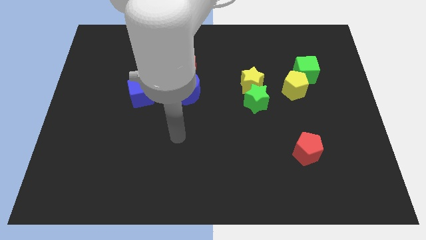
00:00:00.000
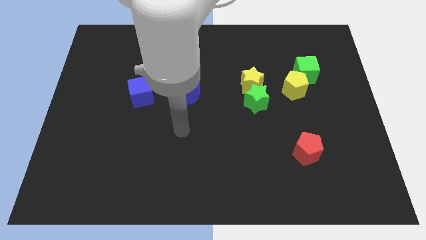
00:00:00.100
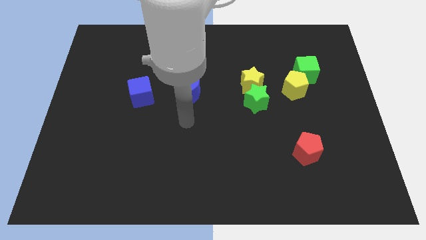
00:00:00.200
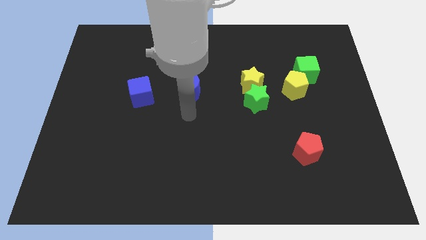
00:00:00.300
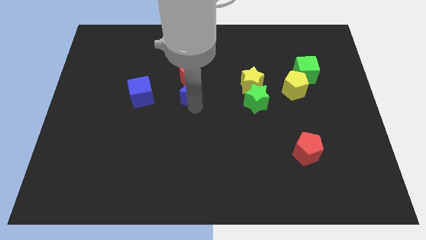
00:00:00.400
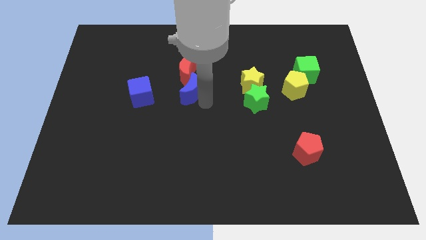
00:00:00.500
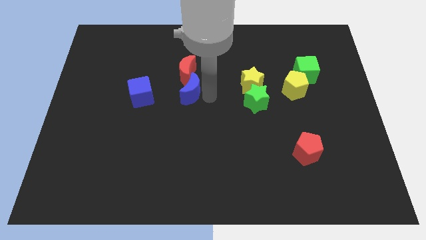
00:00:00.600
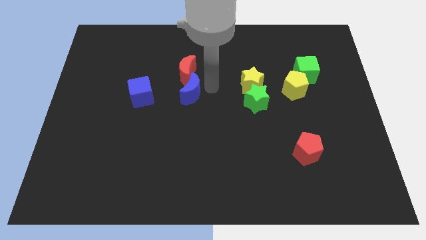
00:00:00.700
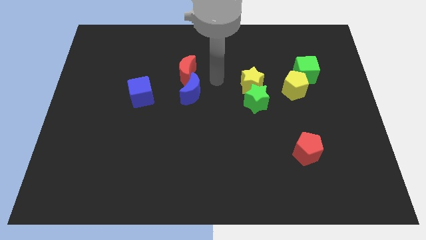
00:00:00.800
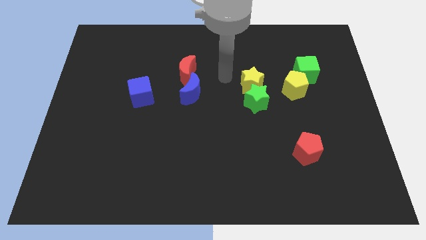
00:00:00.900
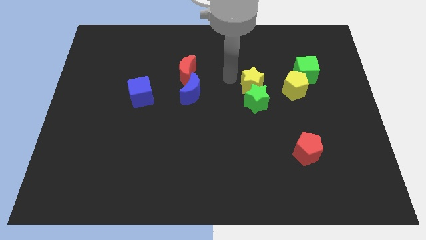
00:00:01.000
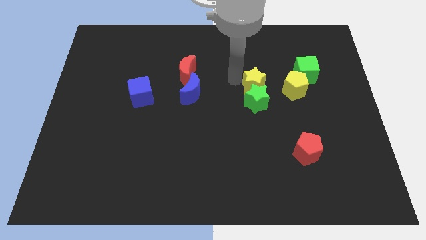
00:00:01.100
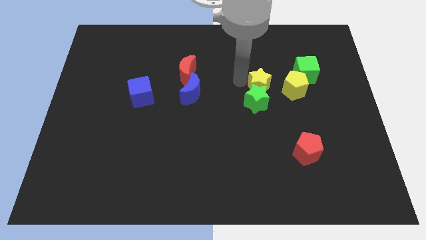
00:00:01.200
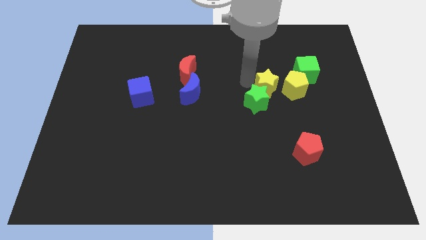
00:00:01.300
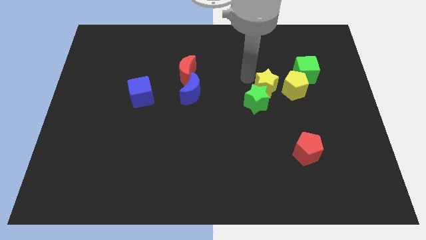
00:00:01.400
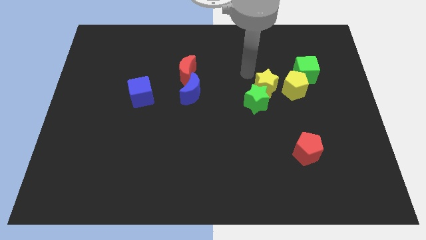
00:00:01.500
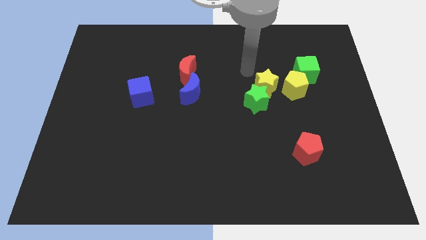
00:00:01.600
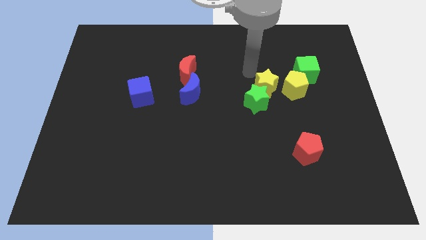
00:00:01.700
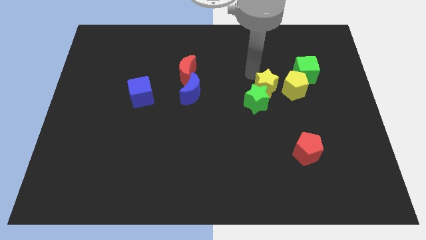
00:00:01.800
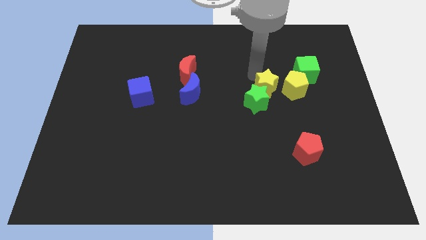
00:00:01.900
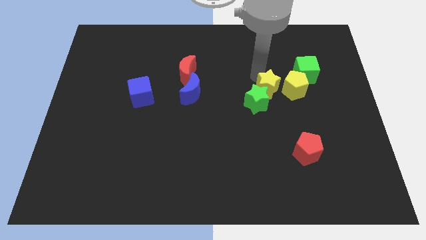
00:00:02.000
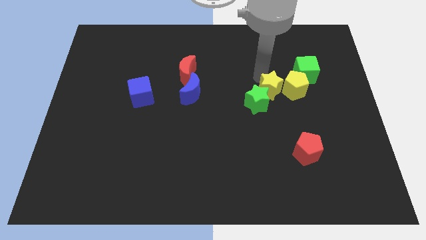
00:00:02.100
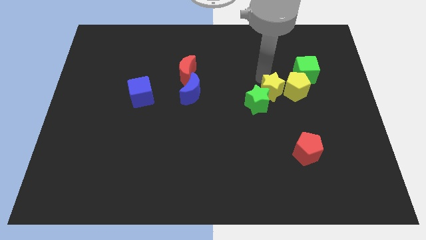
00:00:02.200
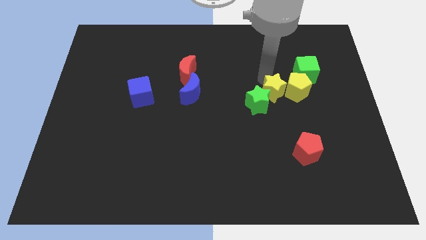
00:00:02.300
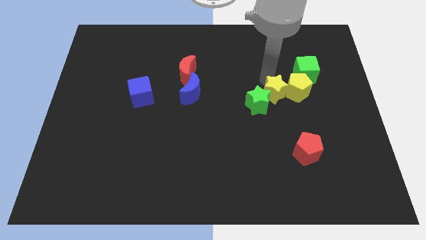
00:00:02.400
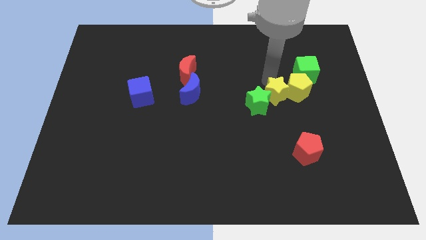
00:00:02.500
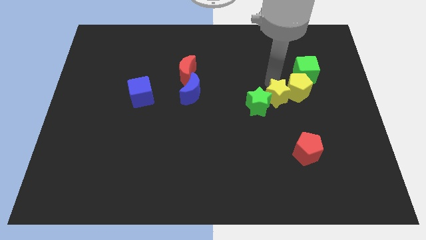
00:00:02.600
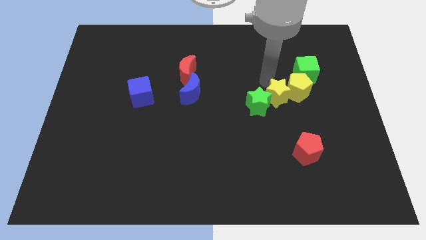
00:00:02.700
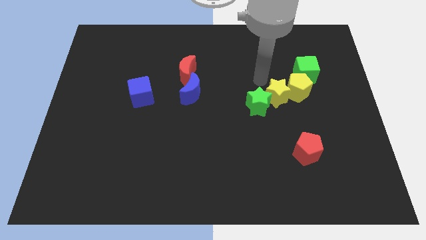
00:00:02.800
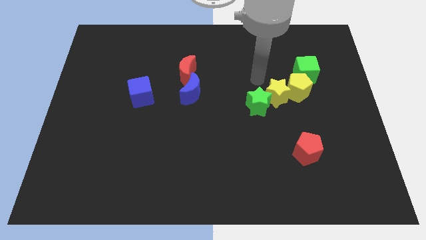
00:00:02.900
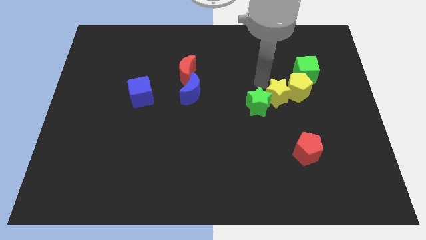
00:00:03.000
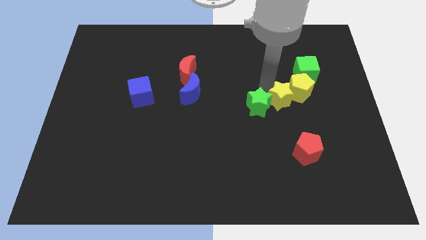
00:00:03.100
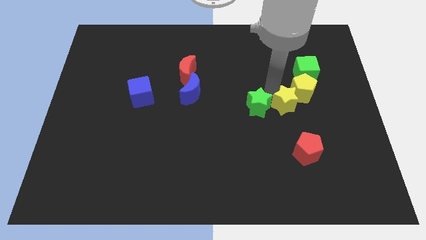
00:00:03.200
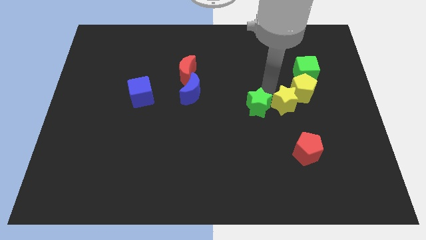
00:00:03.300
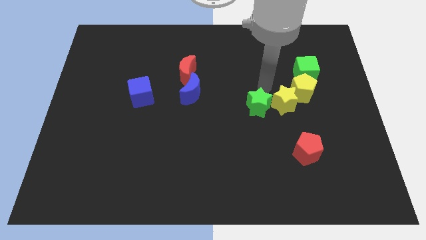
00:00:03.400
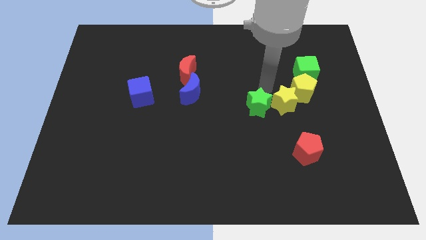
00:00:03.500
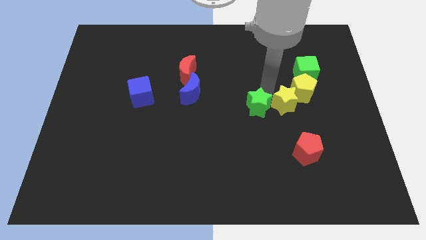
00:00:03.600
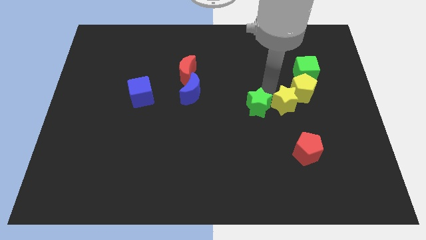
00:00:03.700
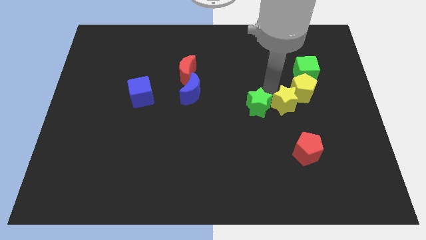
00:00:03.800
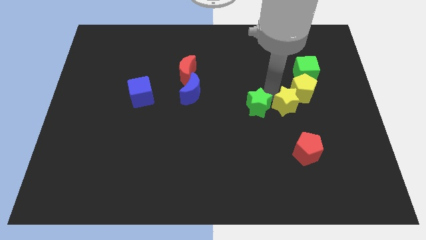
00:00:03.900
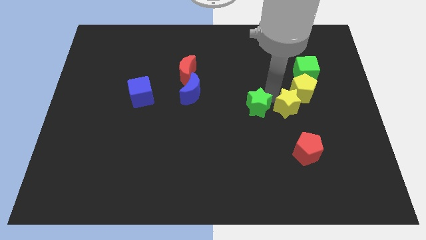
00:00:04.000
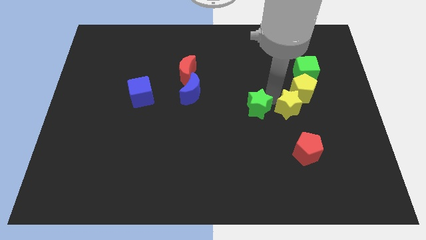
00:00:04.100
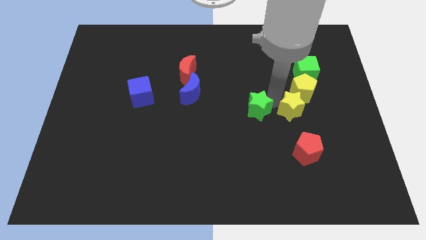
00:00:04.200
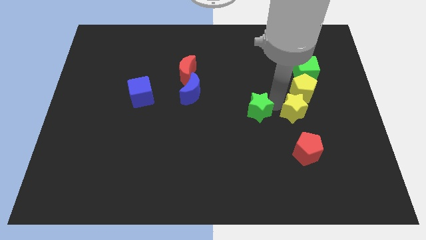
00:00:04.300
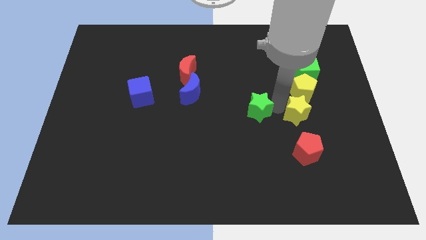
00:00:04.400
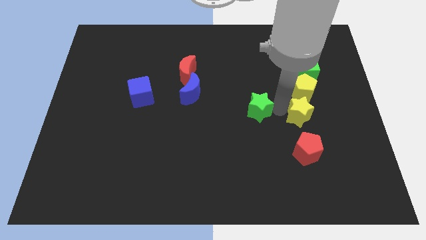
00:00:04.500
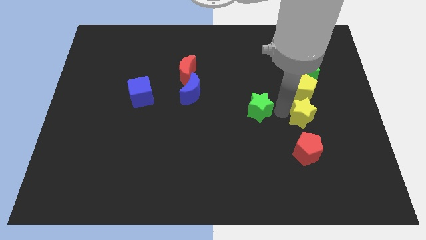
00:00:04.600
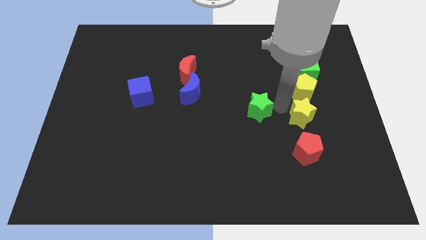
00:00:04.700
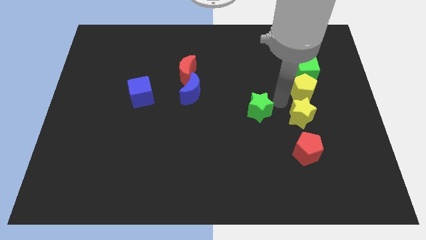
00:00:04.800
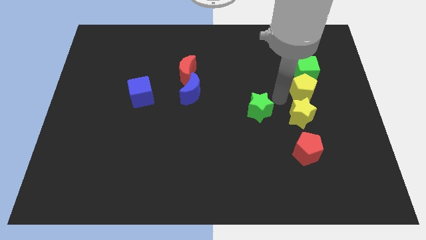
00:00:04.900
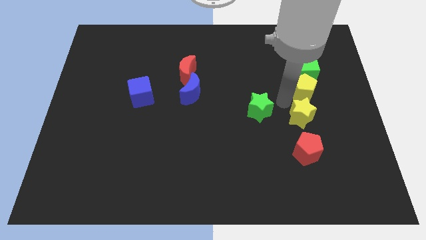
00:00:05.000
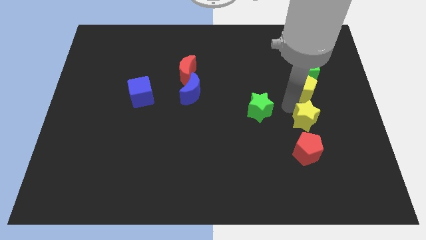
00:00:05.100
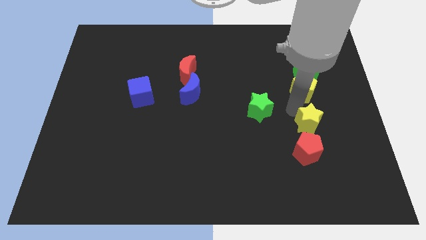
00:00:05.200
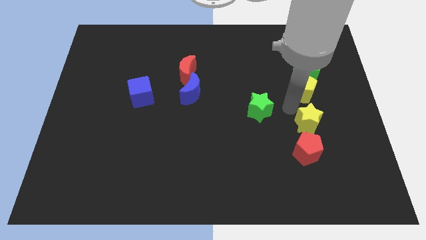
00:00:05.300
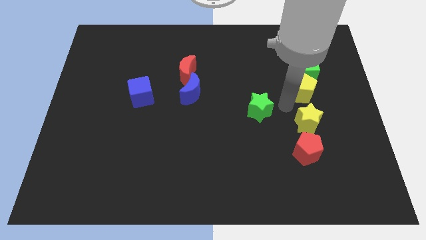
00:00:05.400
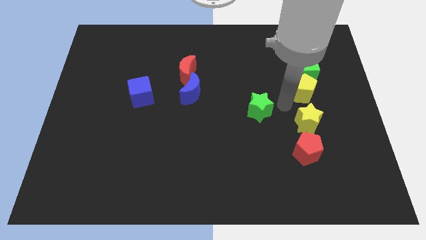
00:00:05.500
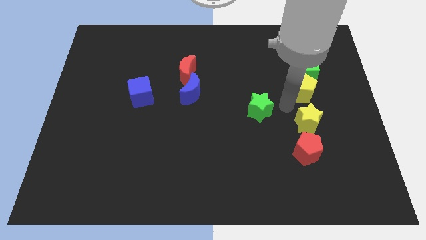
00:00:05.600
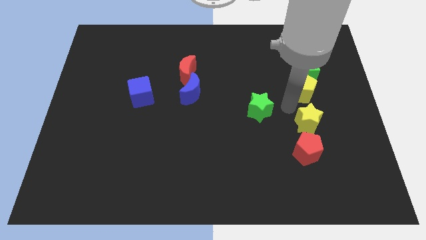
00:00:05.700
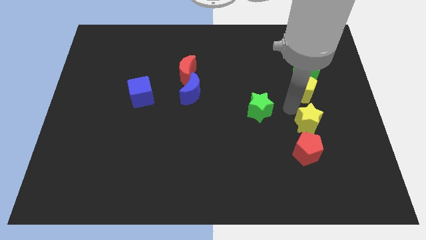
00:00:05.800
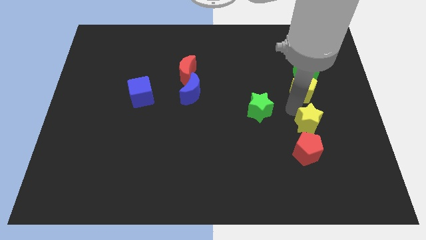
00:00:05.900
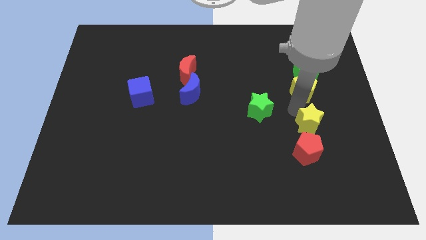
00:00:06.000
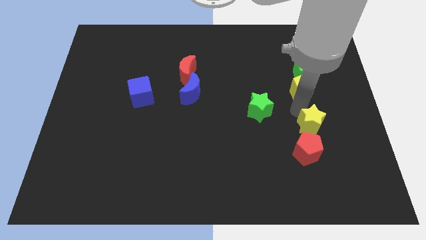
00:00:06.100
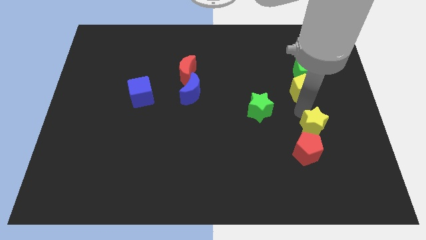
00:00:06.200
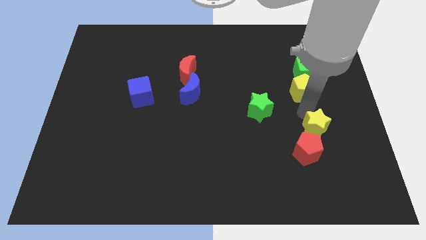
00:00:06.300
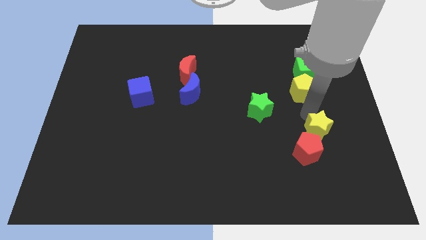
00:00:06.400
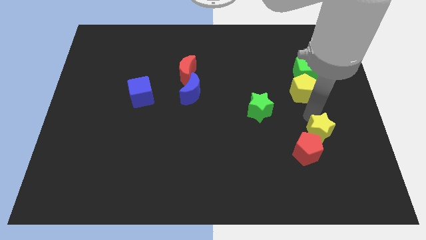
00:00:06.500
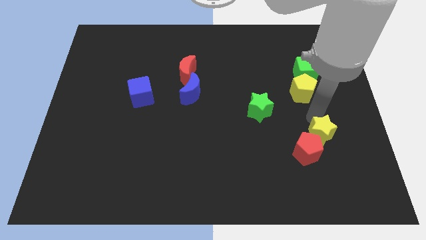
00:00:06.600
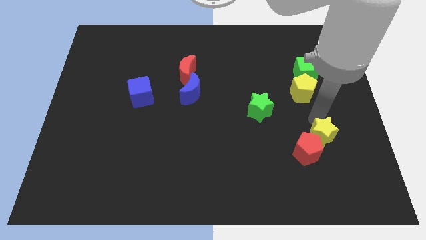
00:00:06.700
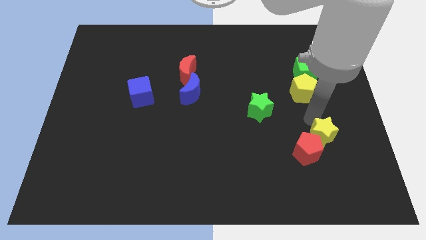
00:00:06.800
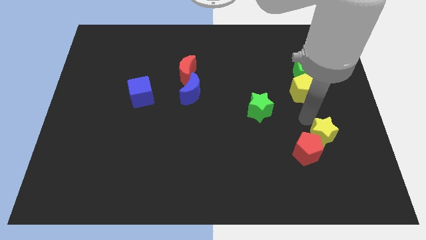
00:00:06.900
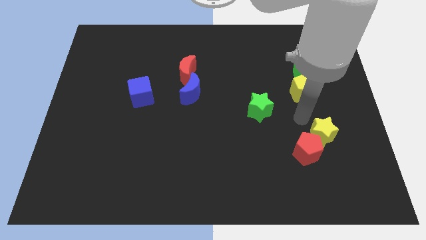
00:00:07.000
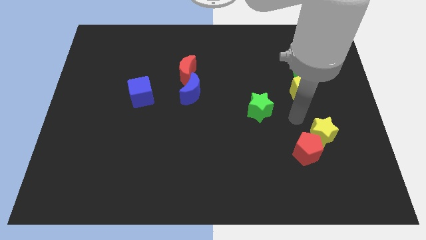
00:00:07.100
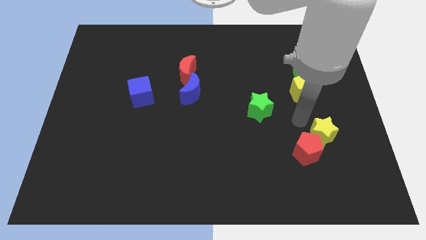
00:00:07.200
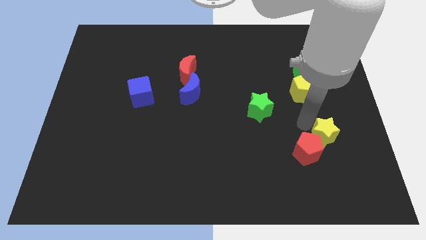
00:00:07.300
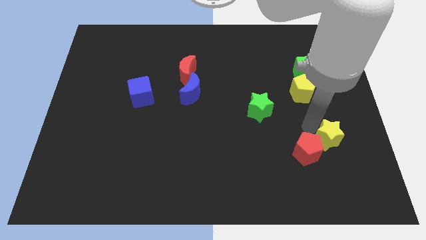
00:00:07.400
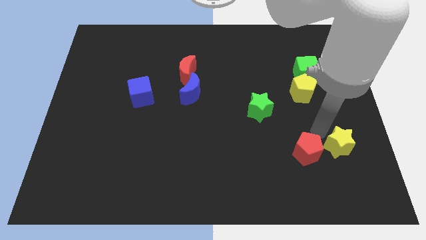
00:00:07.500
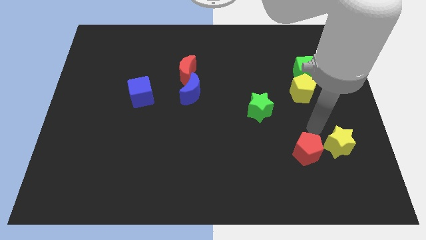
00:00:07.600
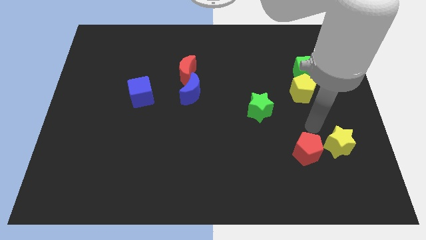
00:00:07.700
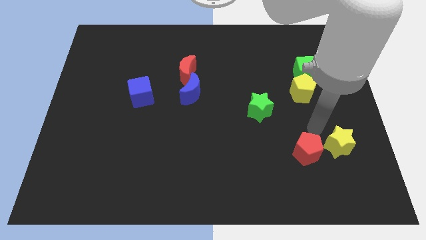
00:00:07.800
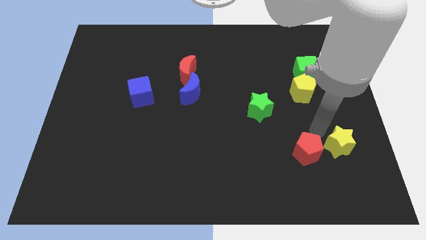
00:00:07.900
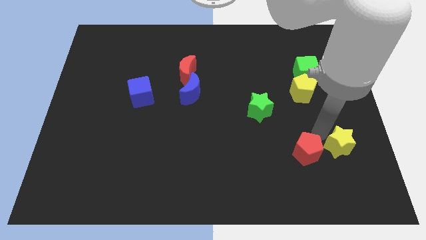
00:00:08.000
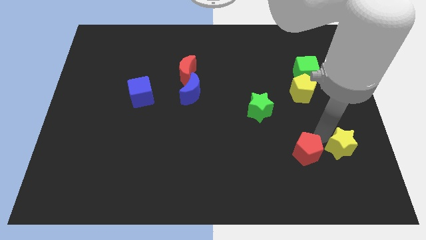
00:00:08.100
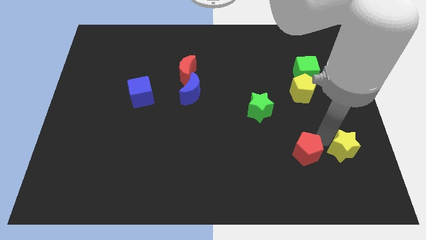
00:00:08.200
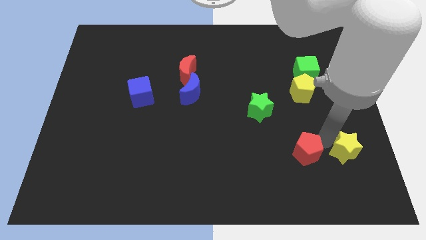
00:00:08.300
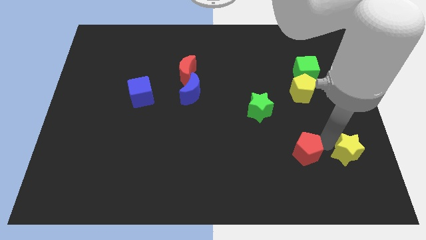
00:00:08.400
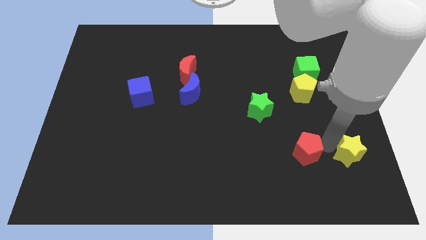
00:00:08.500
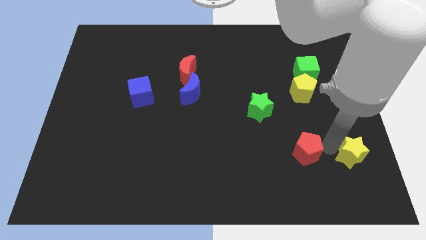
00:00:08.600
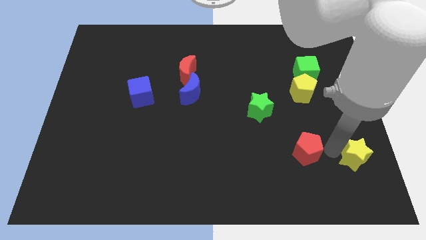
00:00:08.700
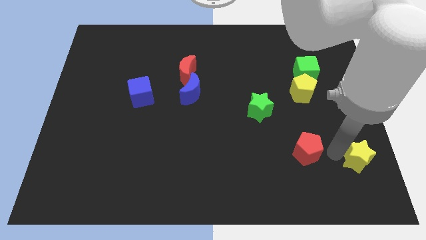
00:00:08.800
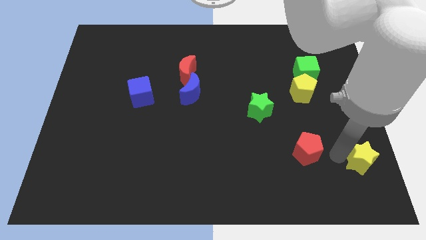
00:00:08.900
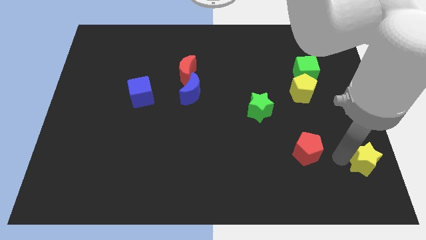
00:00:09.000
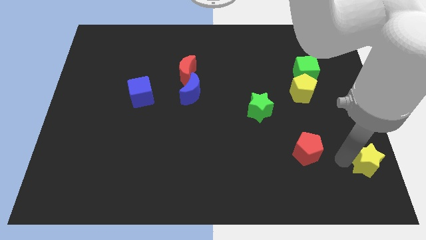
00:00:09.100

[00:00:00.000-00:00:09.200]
move the yellow star to the bottom right of the board
